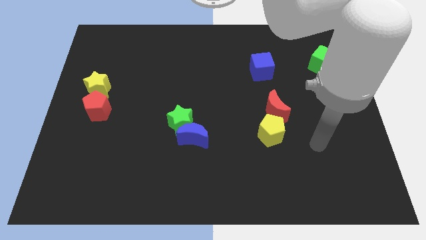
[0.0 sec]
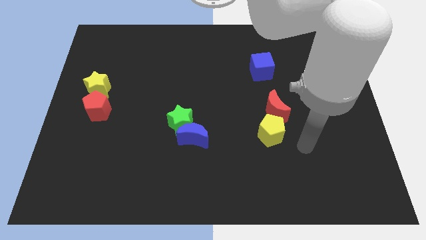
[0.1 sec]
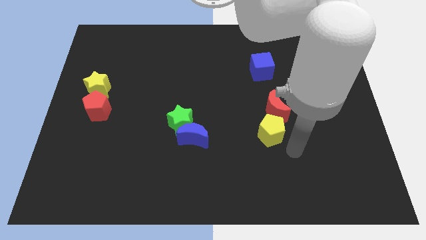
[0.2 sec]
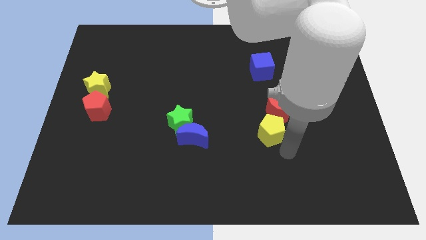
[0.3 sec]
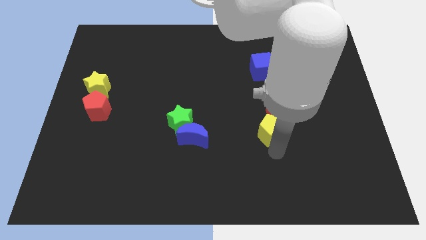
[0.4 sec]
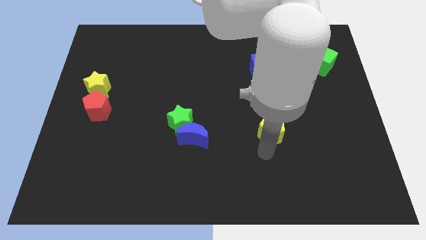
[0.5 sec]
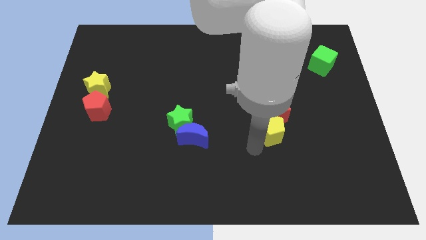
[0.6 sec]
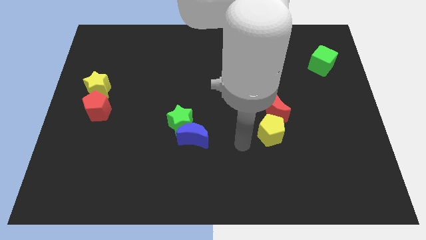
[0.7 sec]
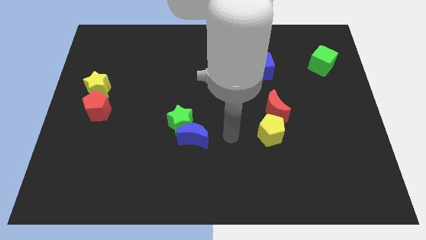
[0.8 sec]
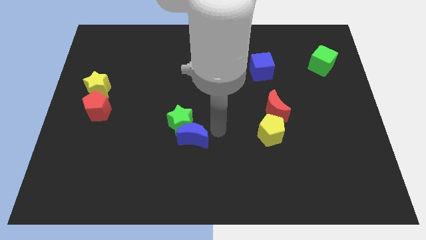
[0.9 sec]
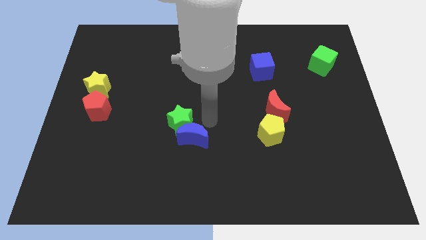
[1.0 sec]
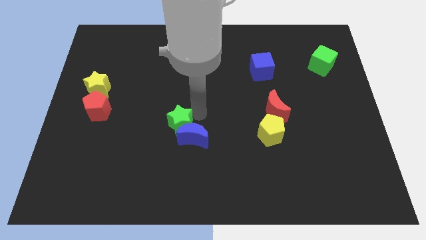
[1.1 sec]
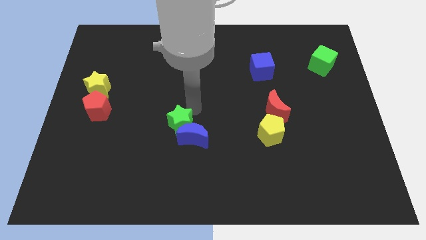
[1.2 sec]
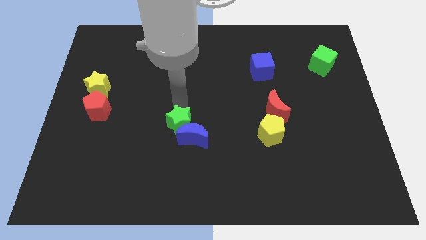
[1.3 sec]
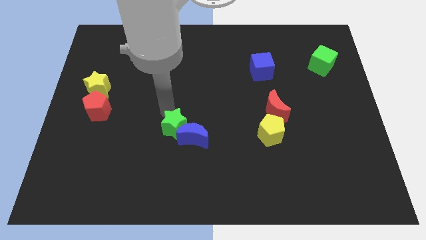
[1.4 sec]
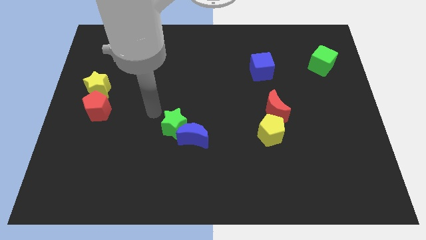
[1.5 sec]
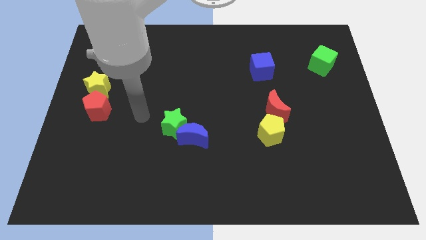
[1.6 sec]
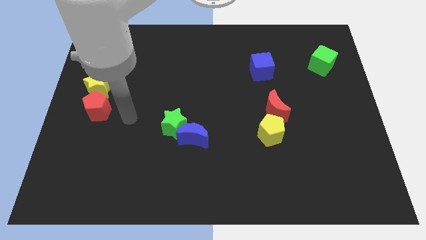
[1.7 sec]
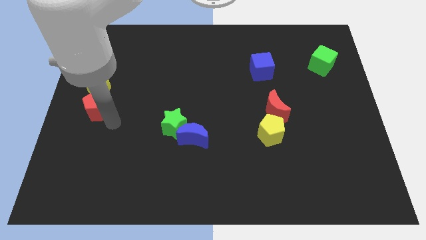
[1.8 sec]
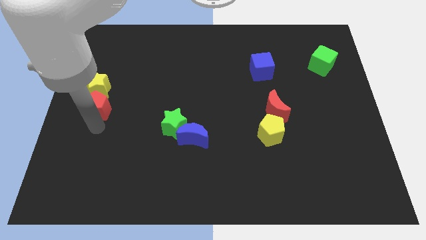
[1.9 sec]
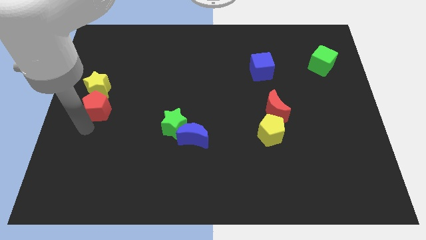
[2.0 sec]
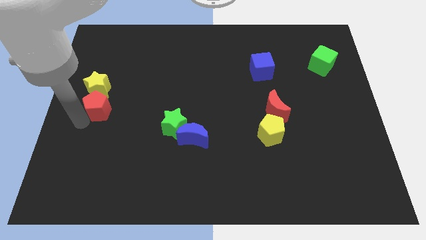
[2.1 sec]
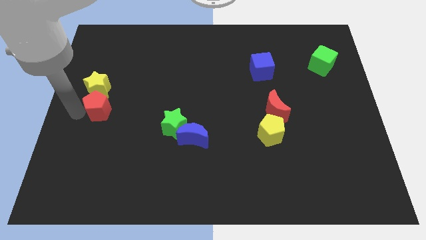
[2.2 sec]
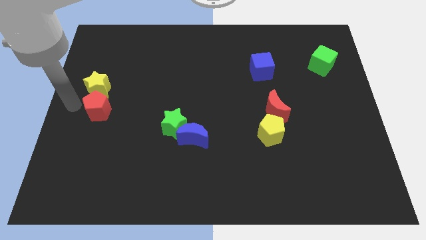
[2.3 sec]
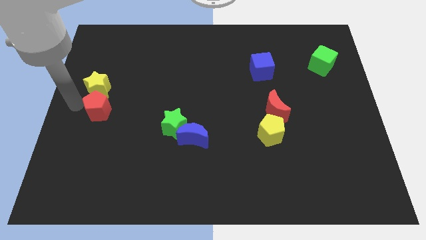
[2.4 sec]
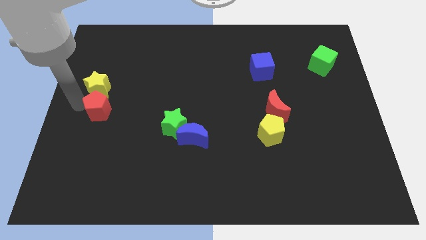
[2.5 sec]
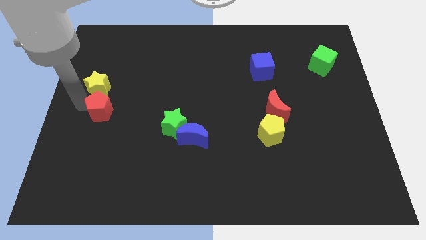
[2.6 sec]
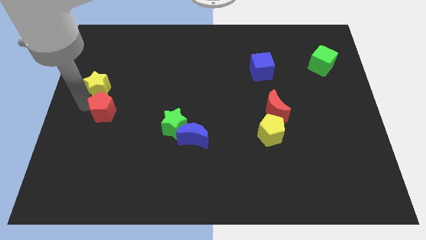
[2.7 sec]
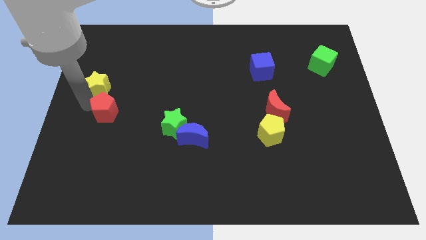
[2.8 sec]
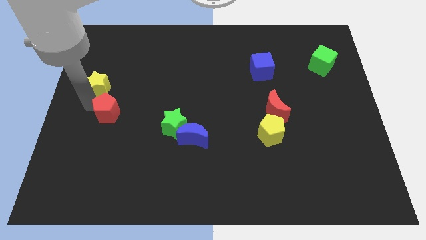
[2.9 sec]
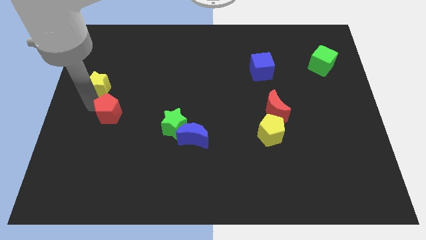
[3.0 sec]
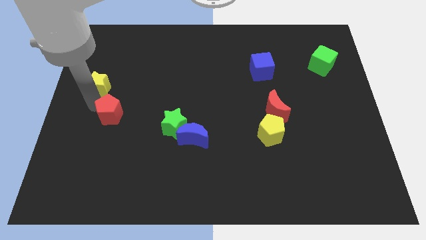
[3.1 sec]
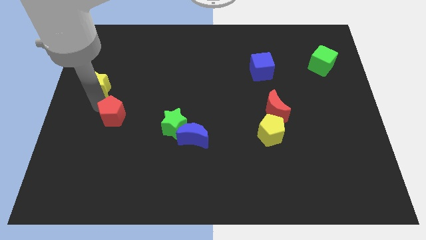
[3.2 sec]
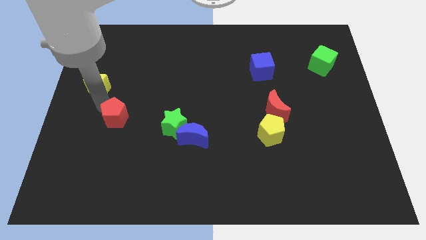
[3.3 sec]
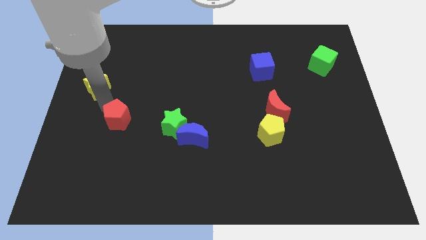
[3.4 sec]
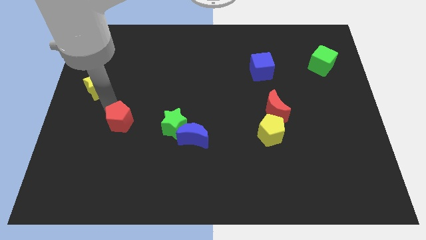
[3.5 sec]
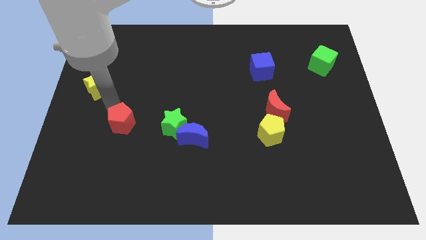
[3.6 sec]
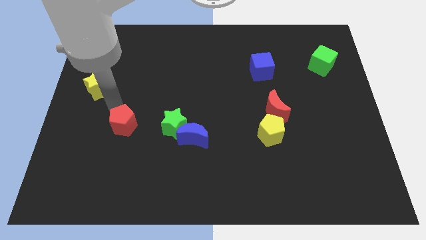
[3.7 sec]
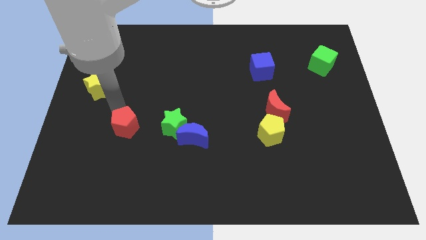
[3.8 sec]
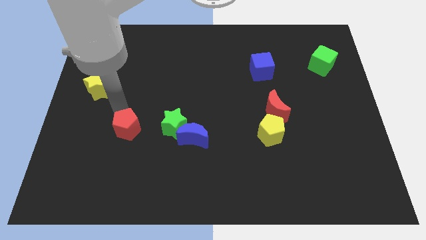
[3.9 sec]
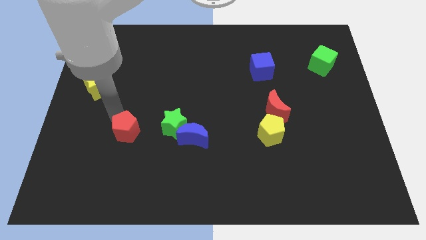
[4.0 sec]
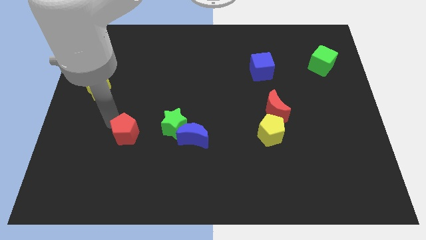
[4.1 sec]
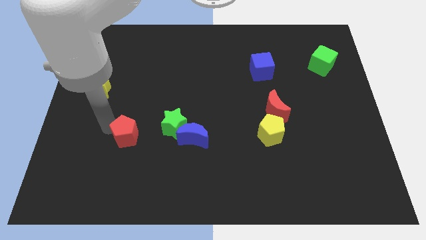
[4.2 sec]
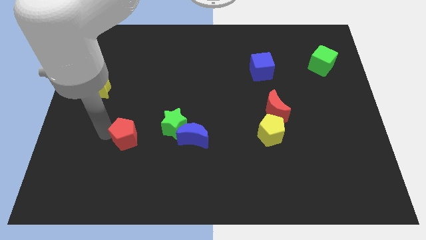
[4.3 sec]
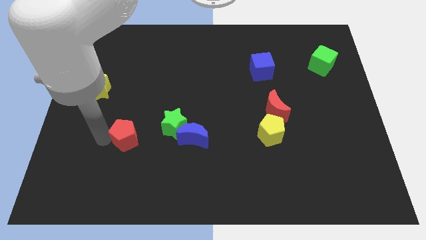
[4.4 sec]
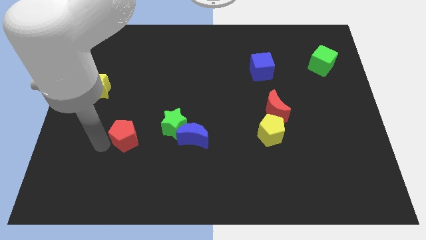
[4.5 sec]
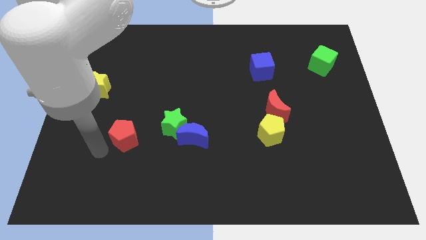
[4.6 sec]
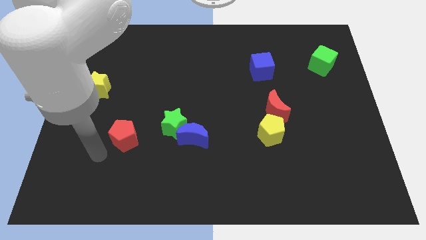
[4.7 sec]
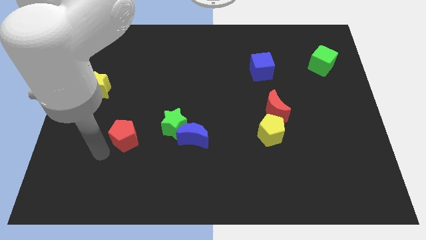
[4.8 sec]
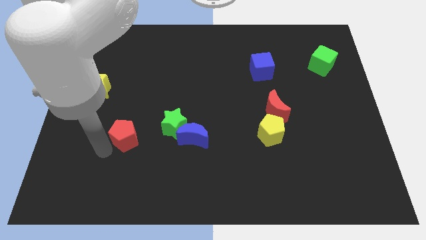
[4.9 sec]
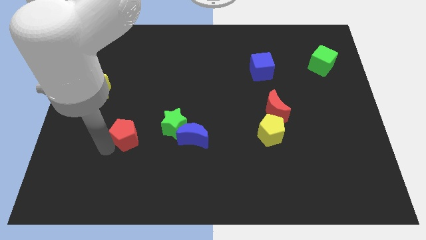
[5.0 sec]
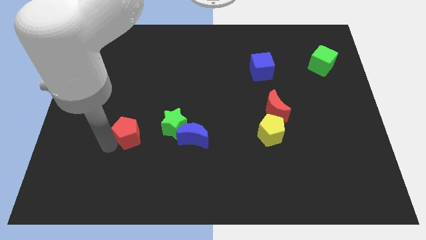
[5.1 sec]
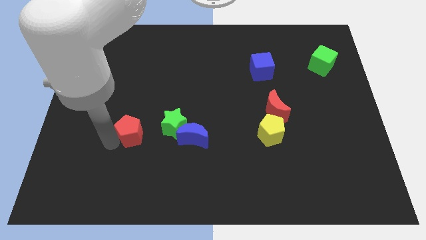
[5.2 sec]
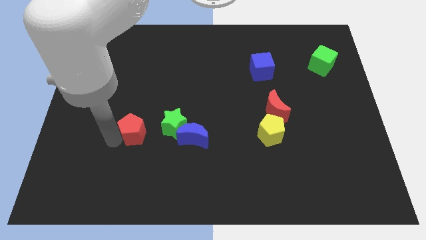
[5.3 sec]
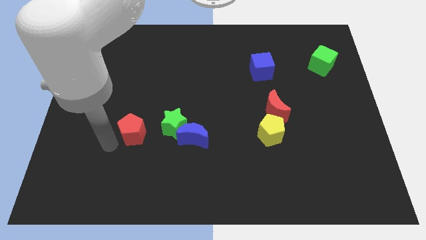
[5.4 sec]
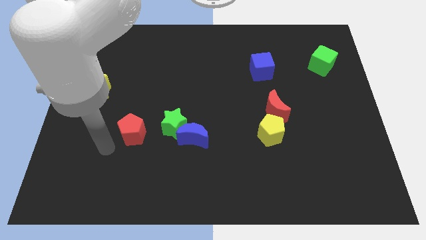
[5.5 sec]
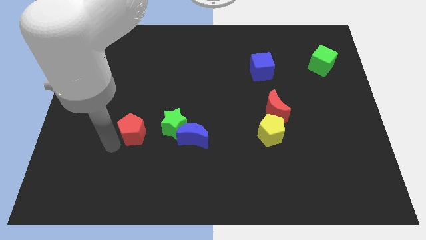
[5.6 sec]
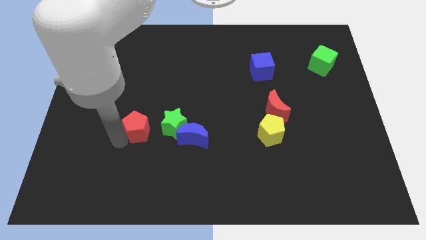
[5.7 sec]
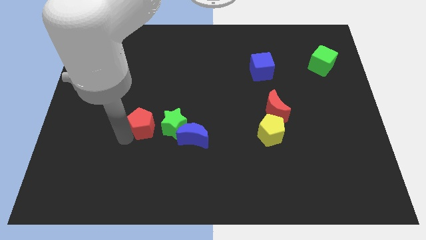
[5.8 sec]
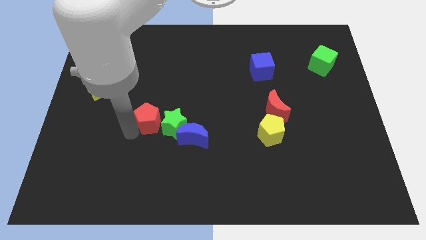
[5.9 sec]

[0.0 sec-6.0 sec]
slide the red pentagon towards the green star

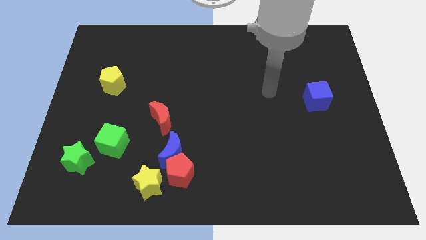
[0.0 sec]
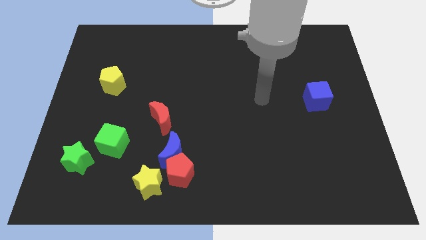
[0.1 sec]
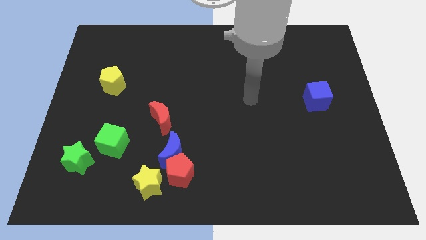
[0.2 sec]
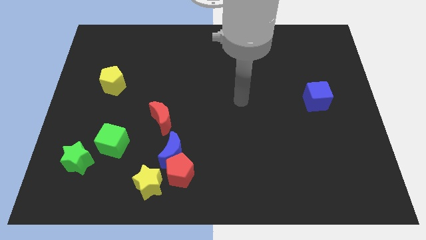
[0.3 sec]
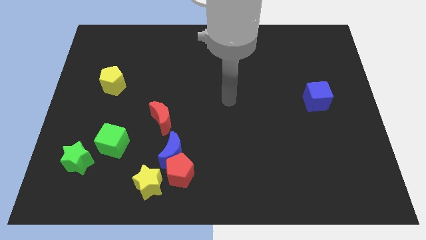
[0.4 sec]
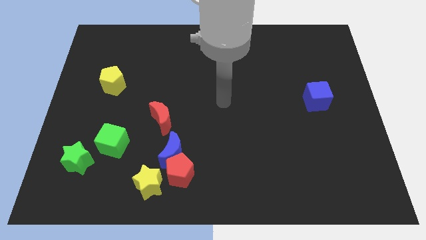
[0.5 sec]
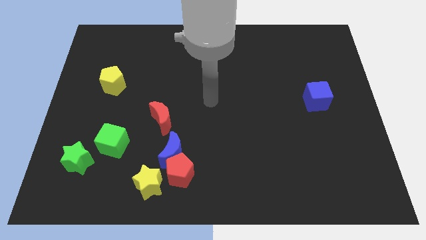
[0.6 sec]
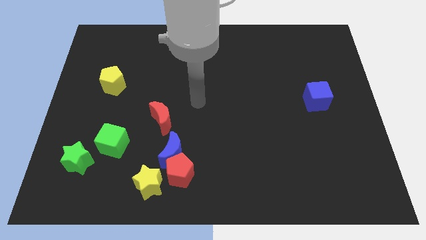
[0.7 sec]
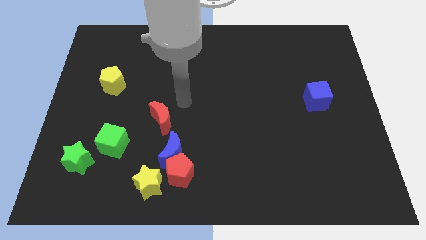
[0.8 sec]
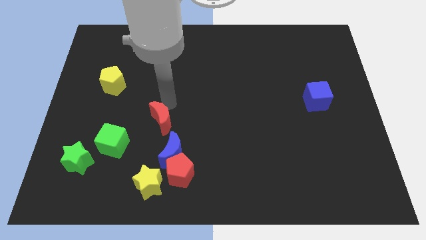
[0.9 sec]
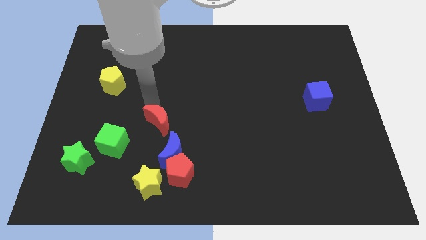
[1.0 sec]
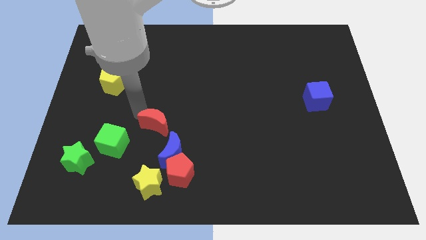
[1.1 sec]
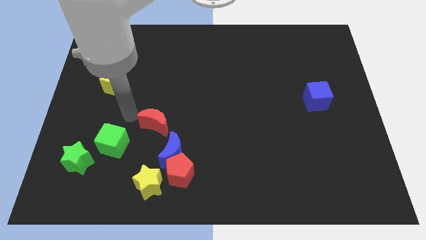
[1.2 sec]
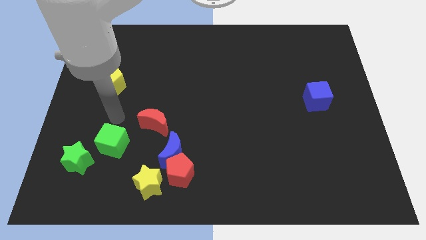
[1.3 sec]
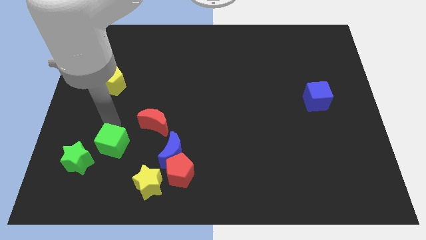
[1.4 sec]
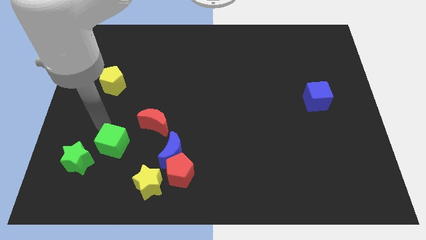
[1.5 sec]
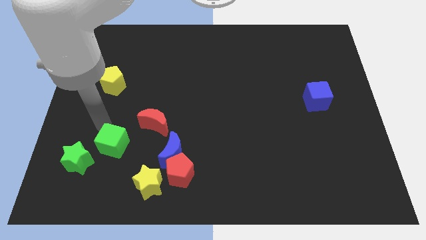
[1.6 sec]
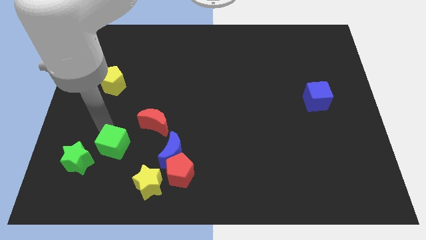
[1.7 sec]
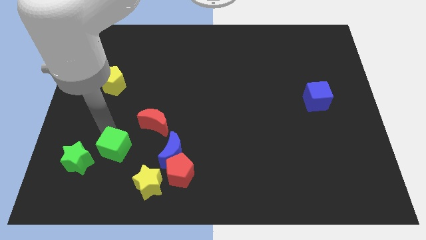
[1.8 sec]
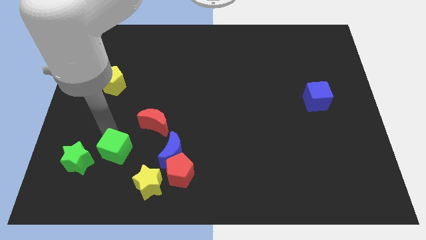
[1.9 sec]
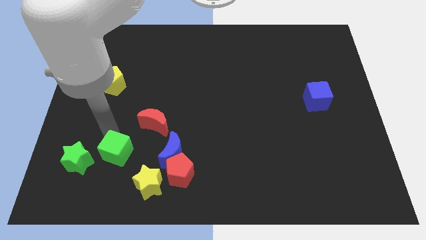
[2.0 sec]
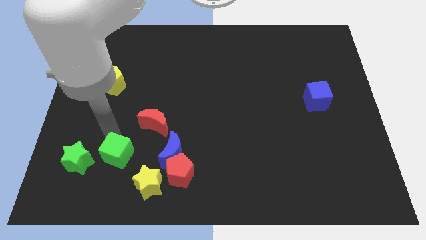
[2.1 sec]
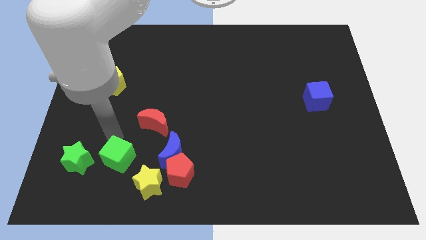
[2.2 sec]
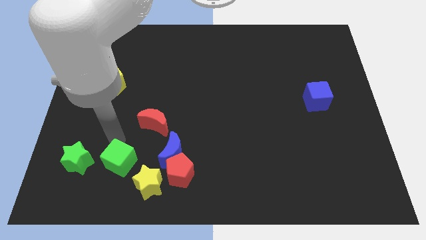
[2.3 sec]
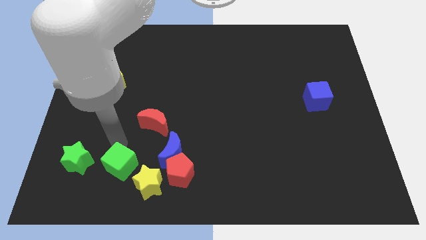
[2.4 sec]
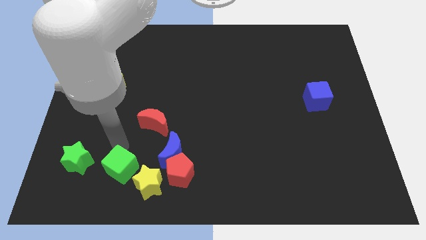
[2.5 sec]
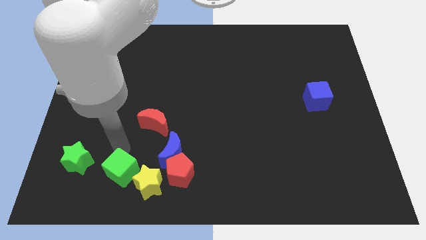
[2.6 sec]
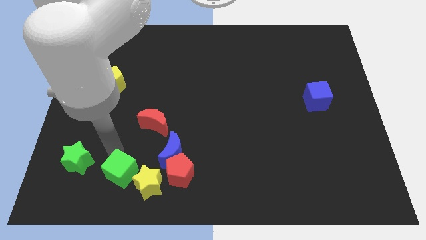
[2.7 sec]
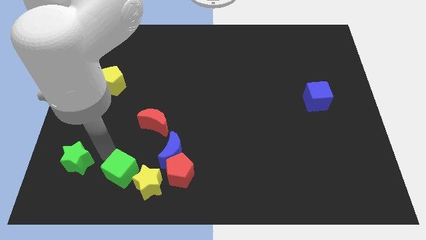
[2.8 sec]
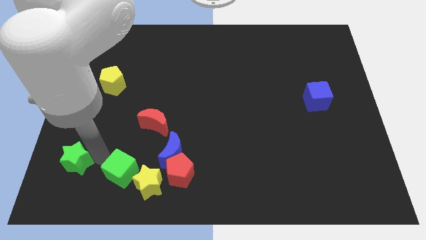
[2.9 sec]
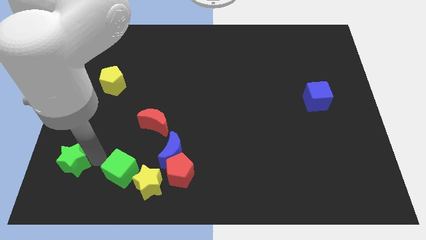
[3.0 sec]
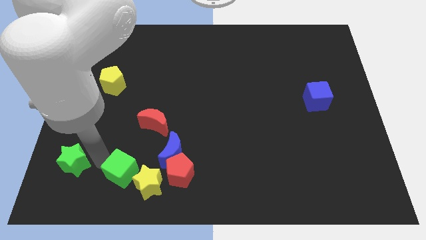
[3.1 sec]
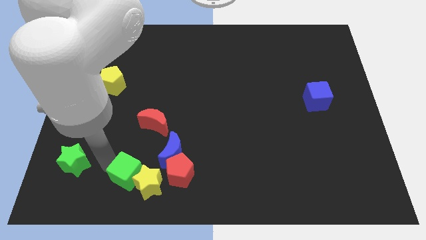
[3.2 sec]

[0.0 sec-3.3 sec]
put the green cube next to the yellow star
